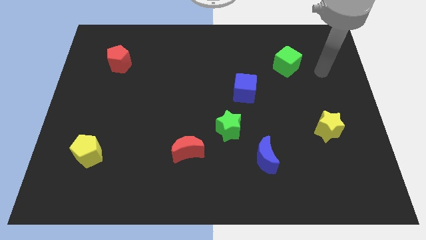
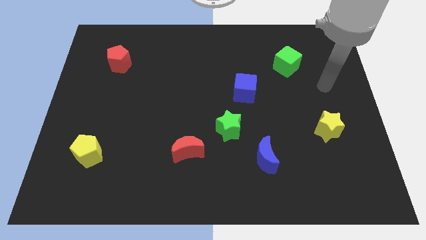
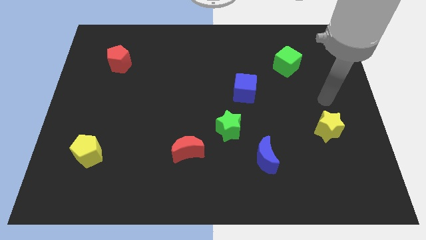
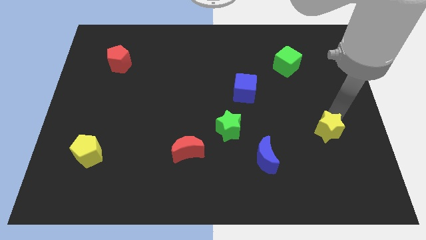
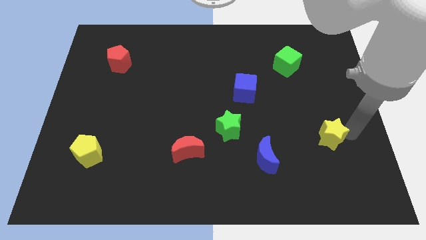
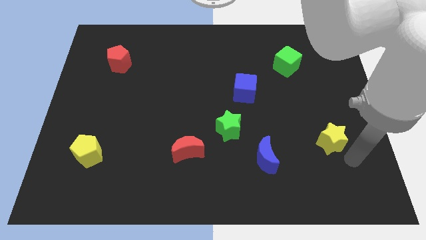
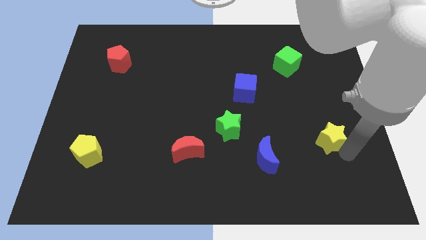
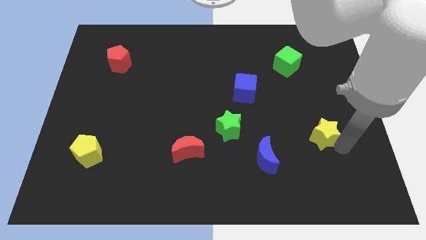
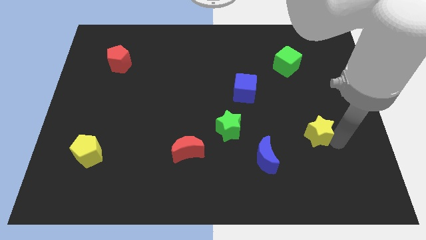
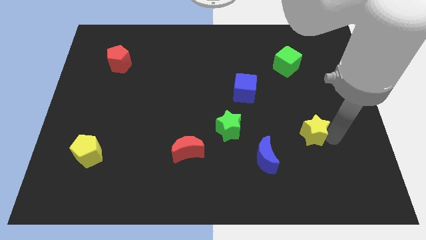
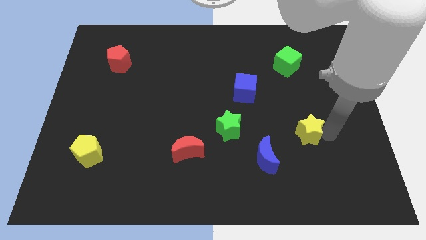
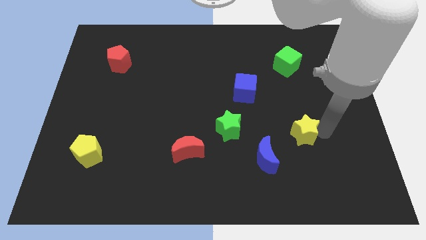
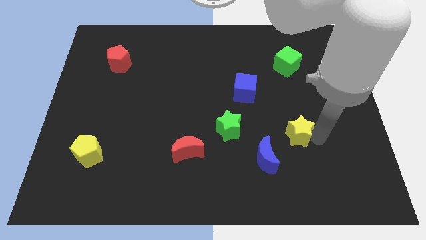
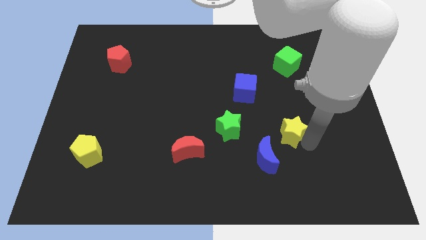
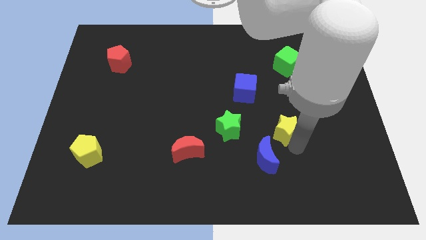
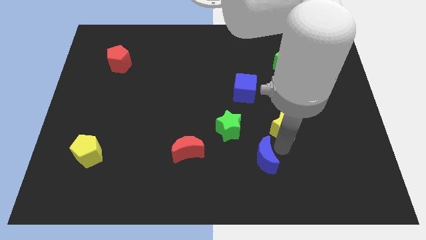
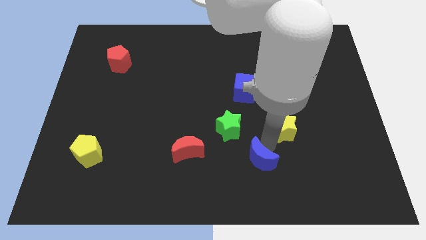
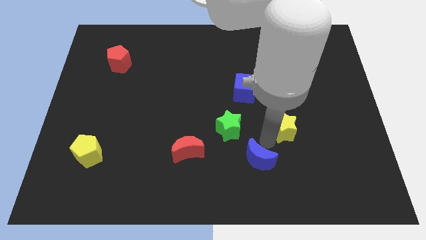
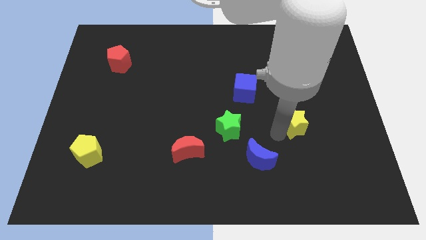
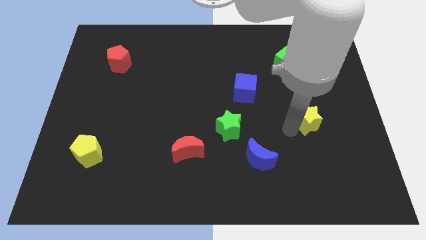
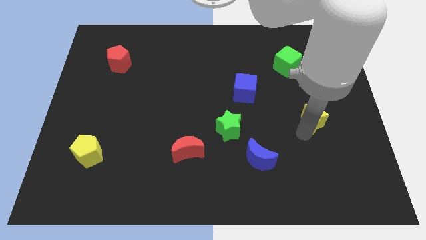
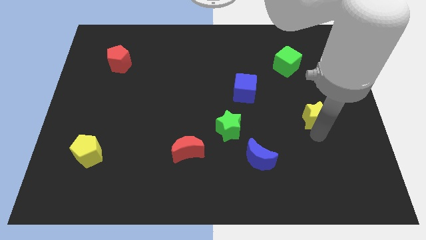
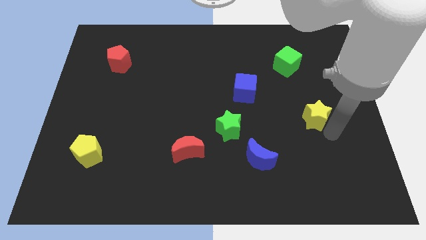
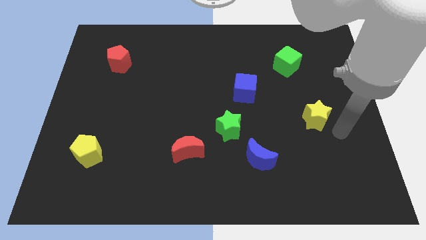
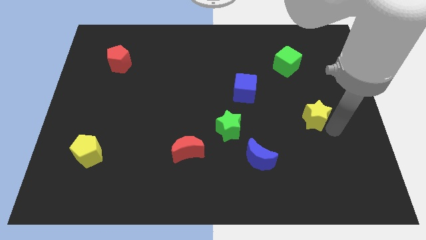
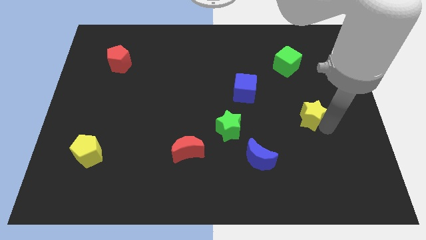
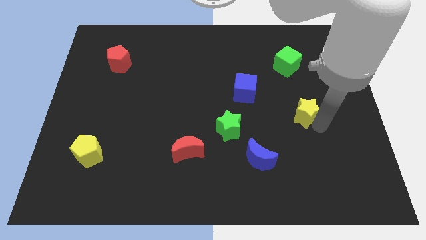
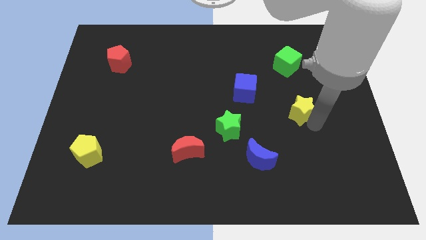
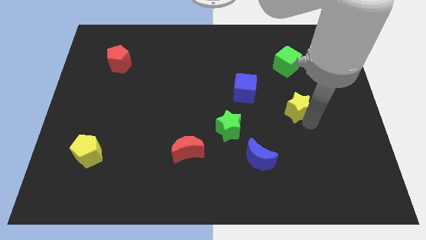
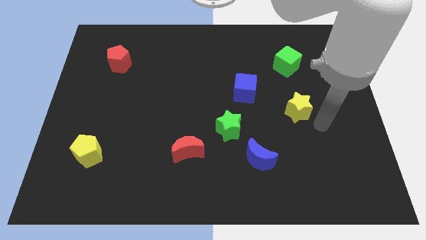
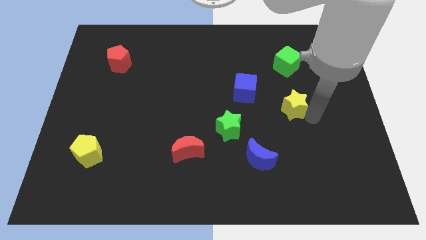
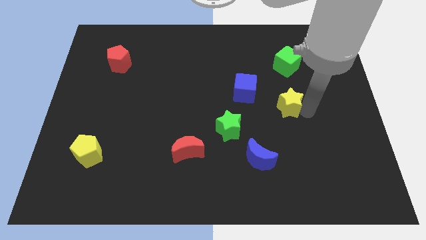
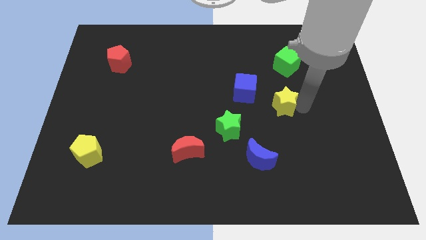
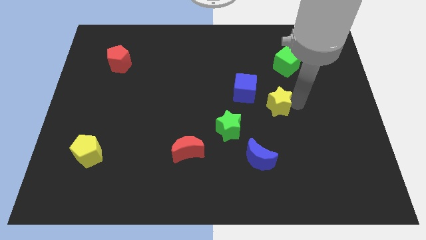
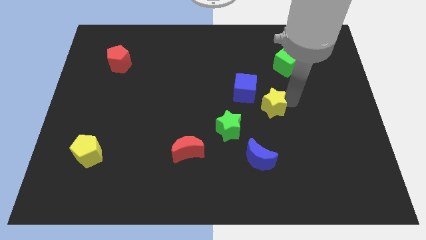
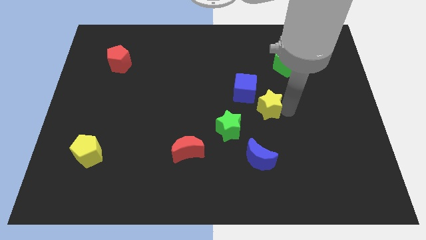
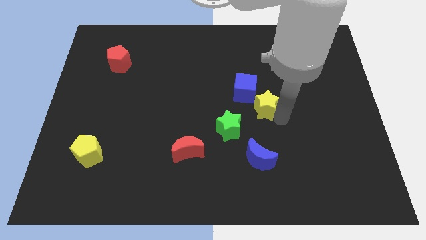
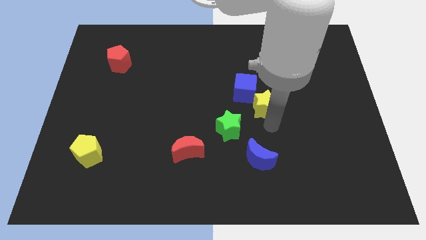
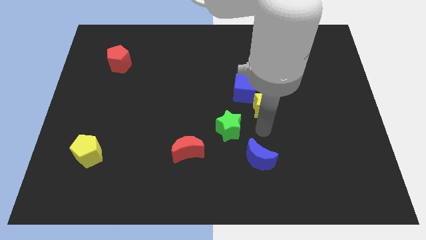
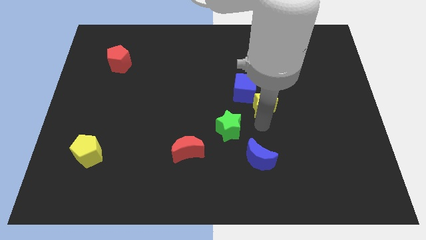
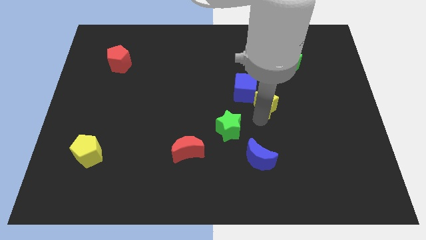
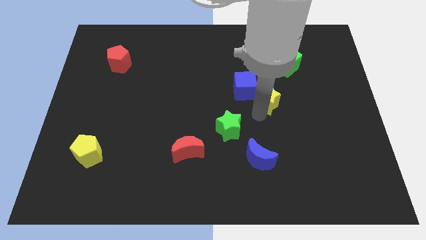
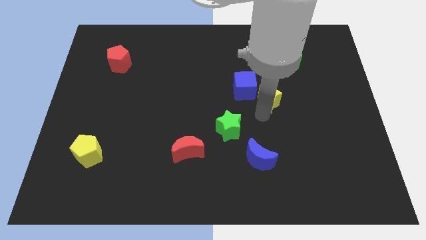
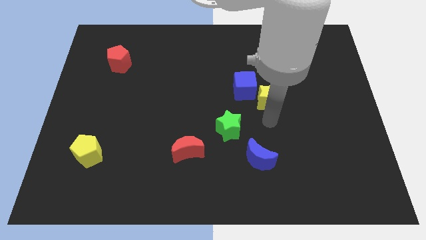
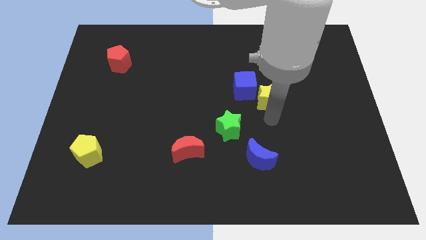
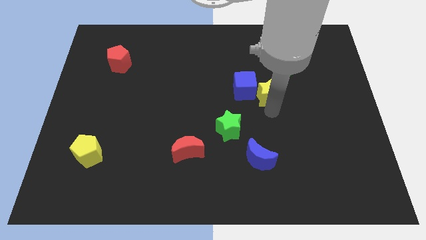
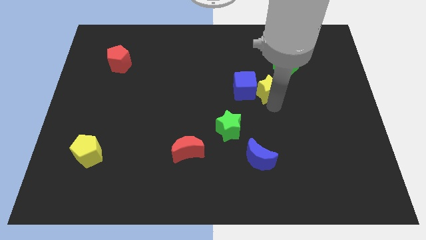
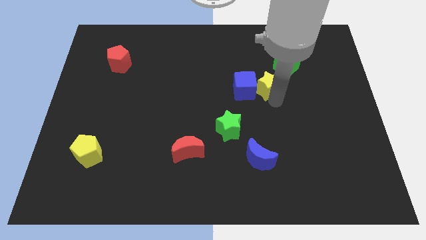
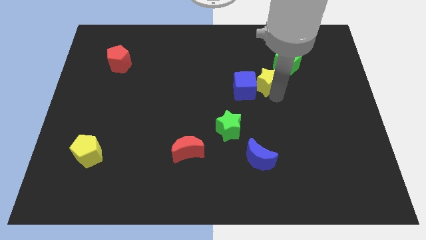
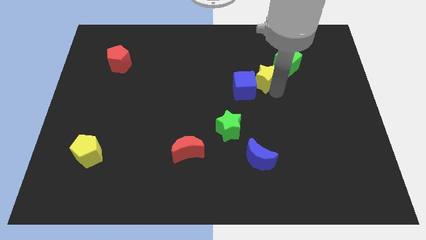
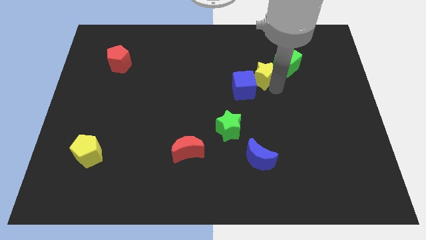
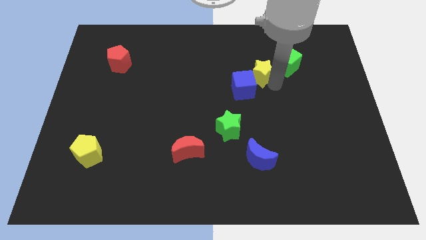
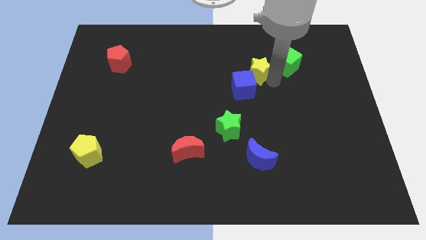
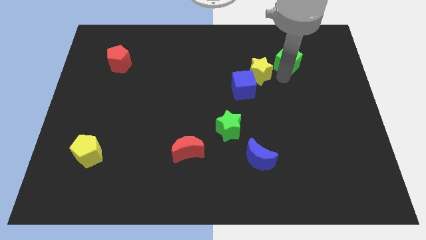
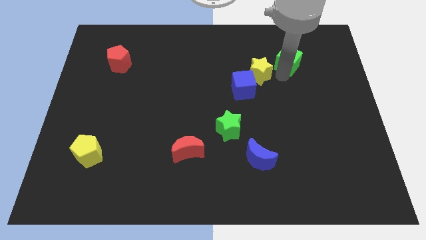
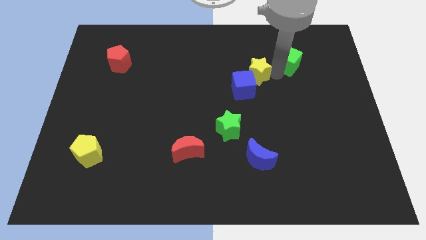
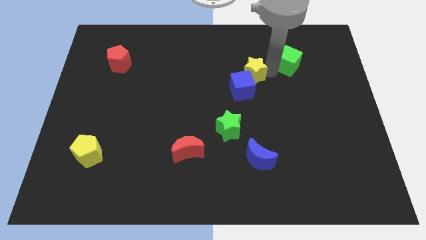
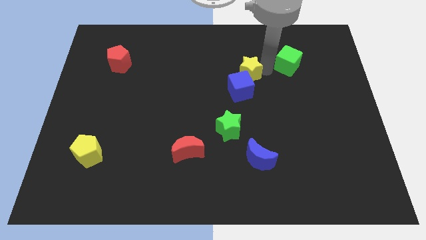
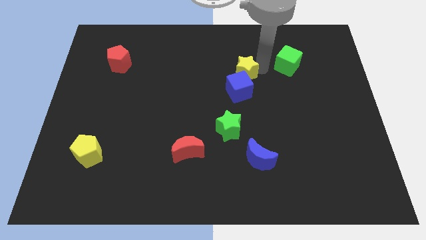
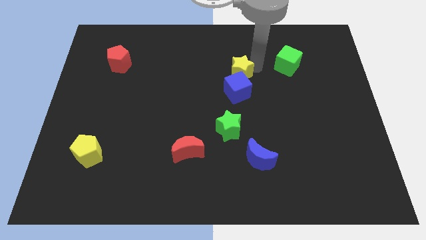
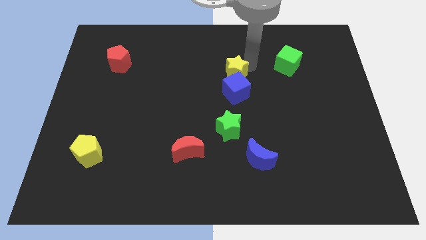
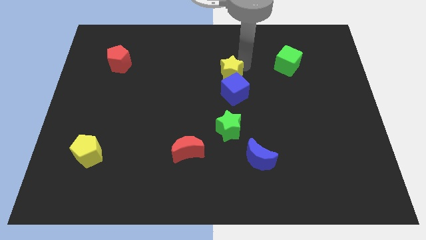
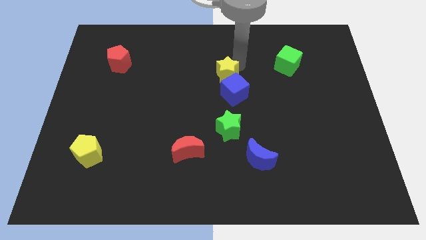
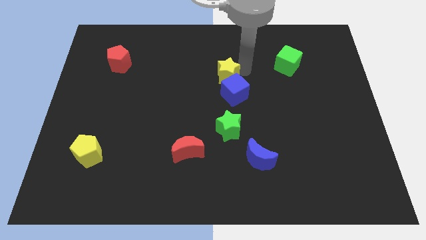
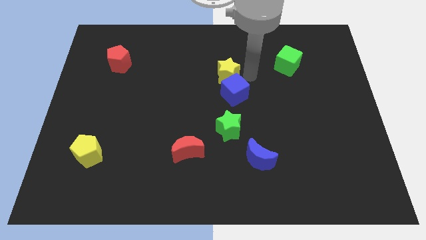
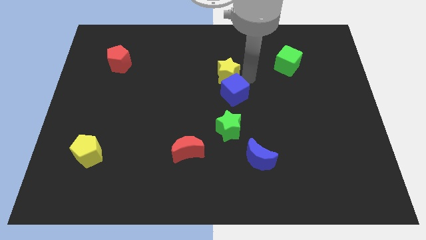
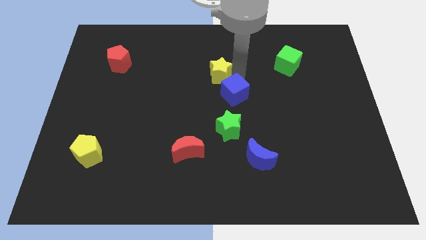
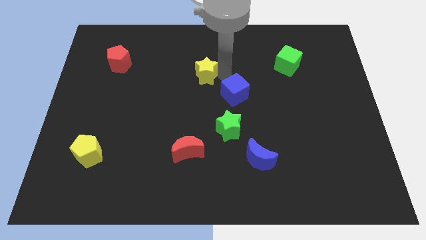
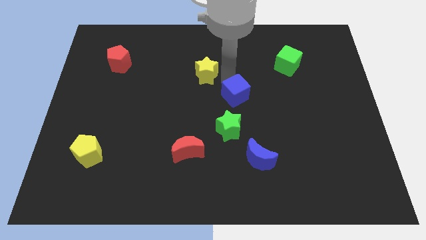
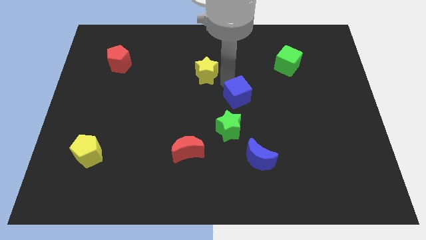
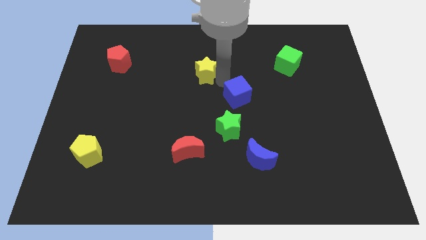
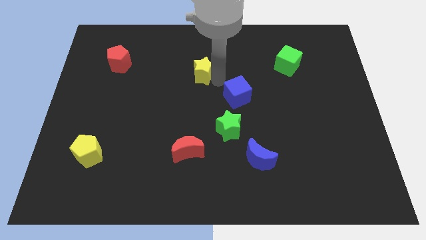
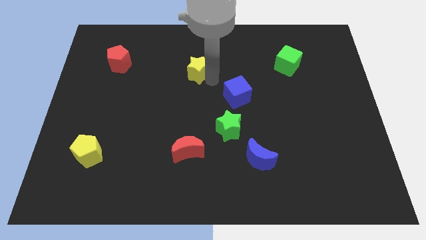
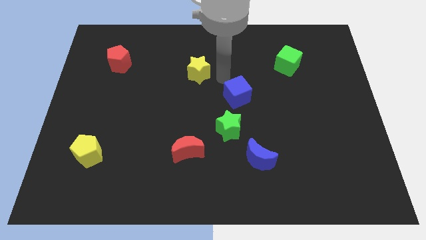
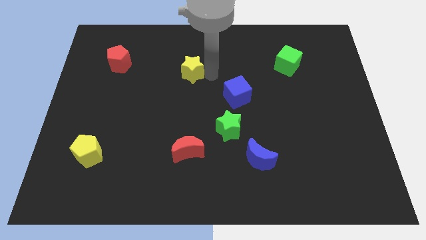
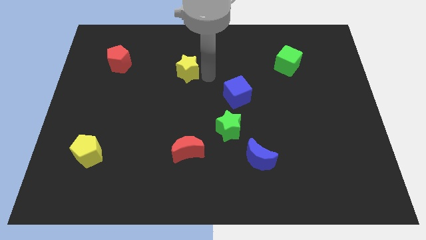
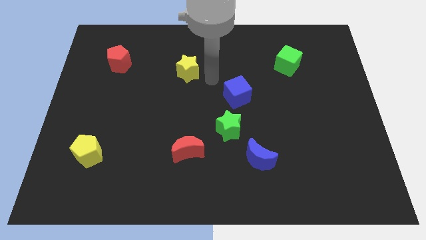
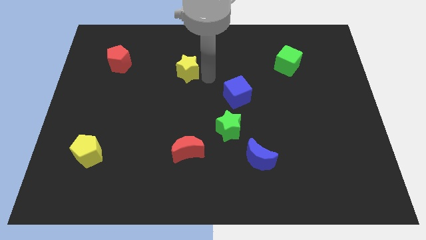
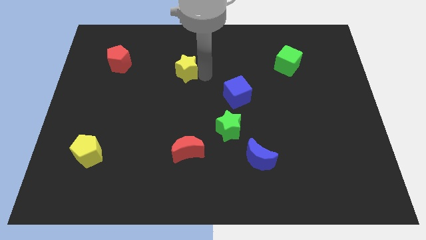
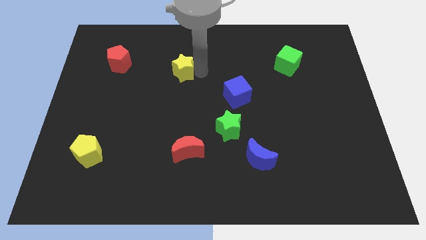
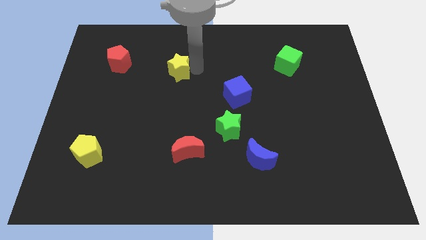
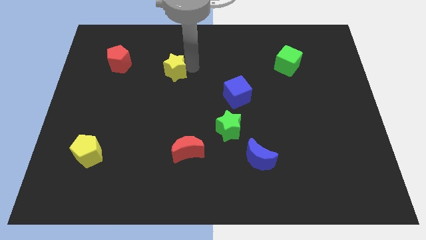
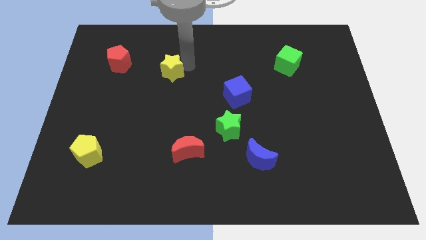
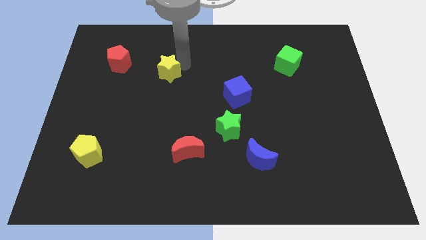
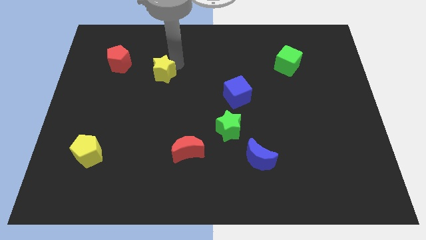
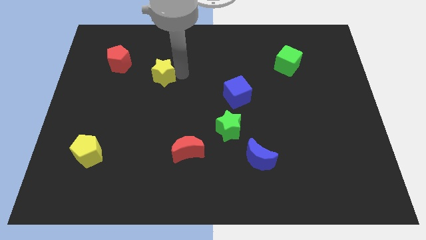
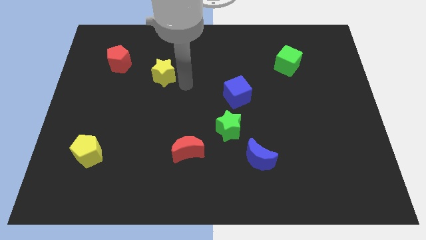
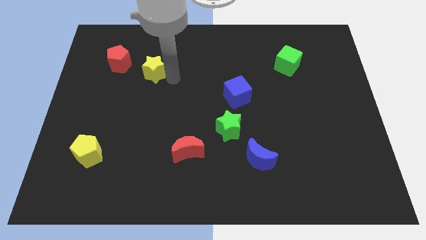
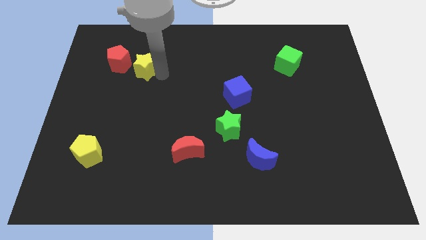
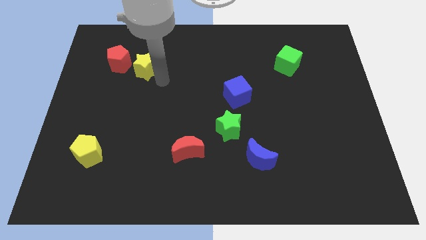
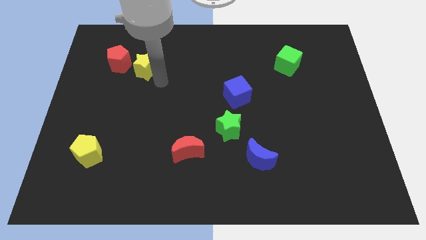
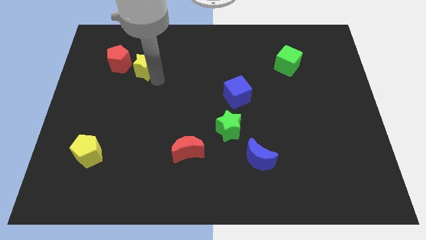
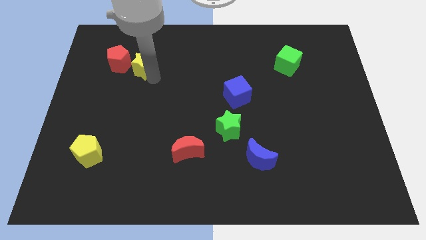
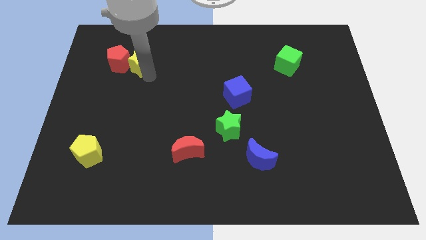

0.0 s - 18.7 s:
move the yellow star to the red pentagon
